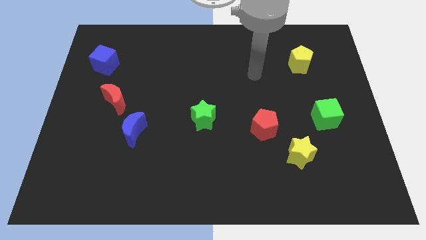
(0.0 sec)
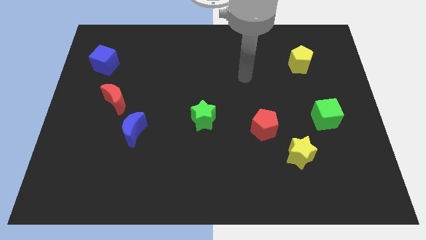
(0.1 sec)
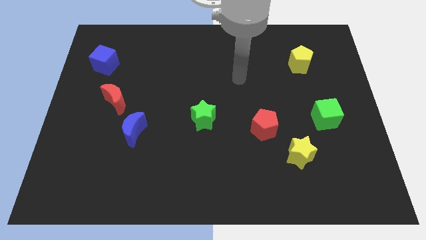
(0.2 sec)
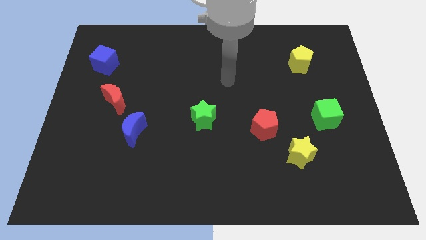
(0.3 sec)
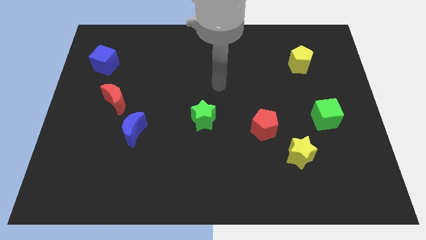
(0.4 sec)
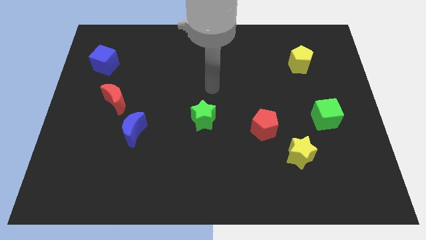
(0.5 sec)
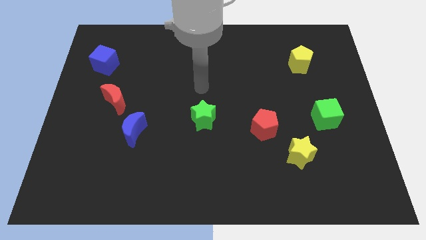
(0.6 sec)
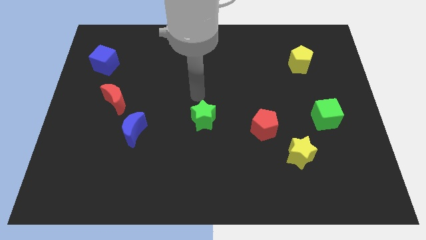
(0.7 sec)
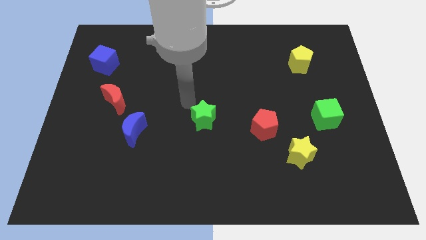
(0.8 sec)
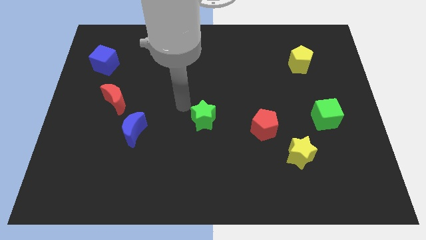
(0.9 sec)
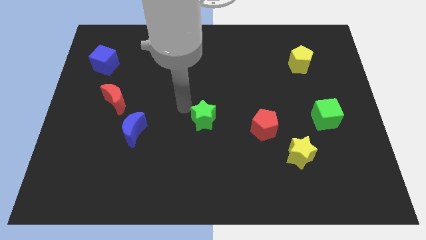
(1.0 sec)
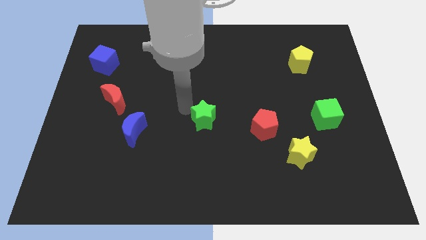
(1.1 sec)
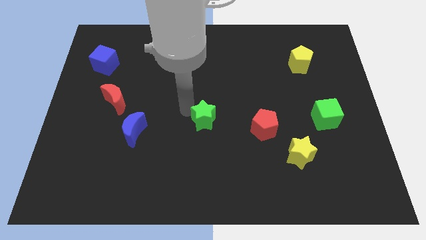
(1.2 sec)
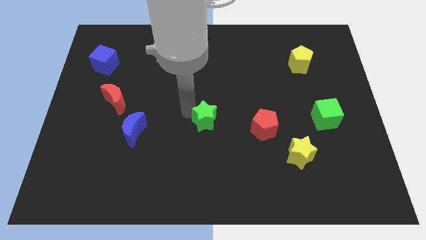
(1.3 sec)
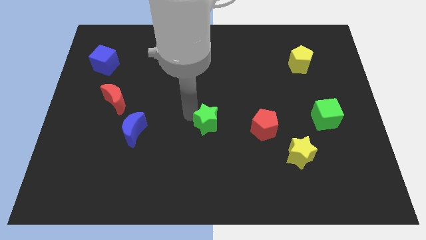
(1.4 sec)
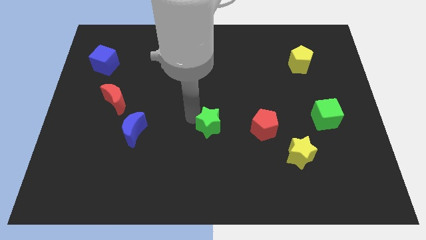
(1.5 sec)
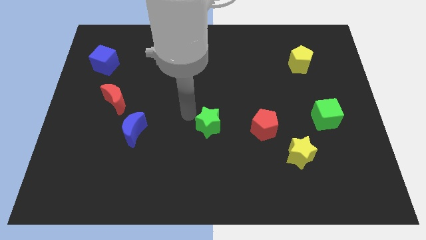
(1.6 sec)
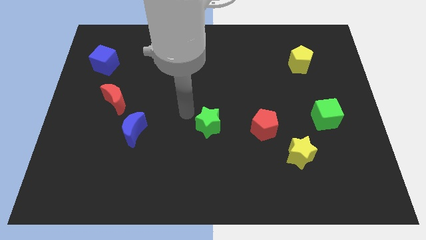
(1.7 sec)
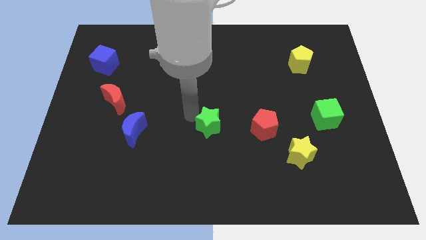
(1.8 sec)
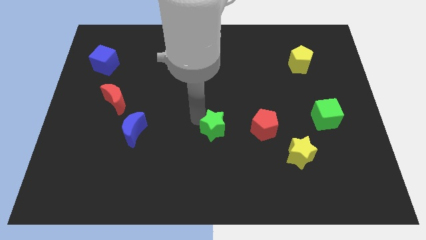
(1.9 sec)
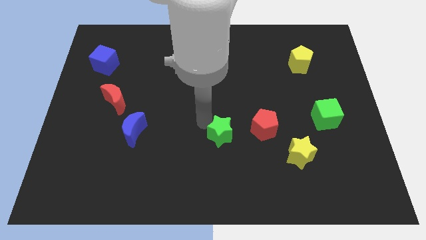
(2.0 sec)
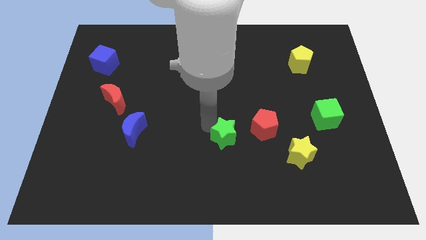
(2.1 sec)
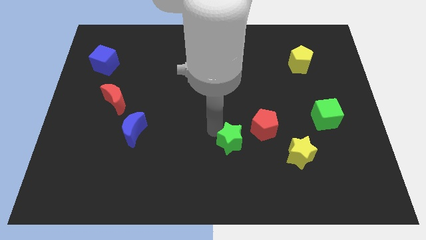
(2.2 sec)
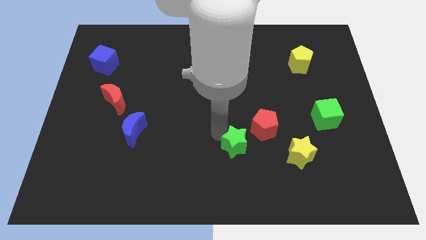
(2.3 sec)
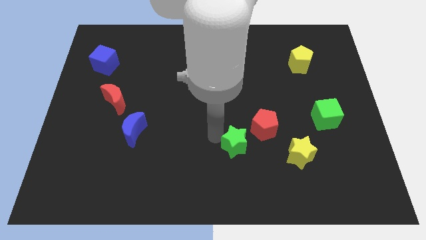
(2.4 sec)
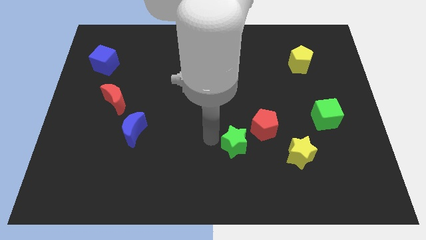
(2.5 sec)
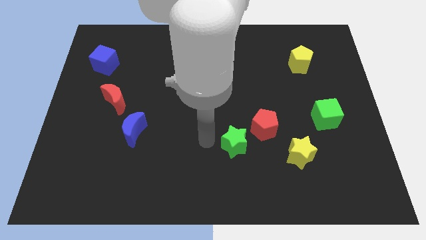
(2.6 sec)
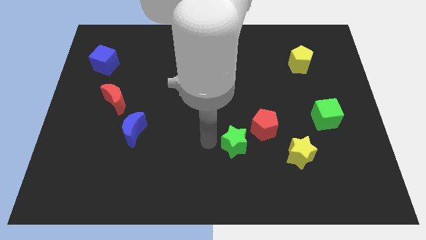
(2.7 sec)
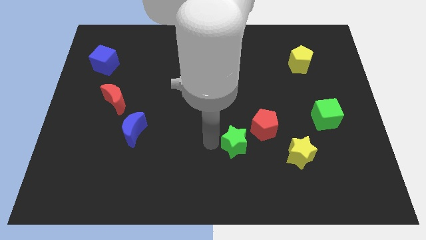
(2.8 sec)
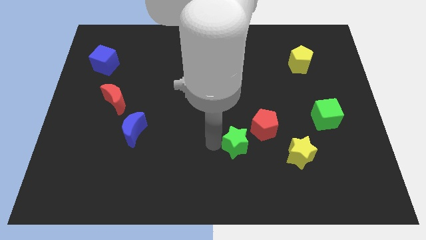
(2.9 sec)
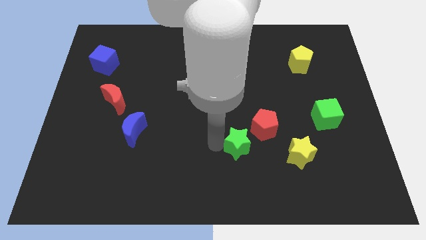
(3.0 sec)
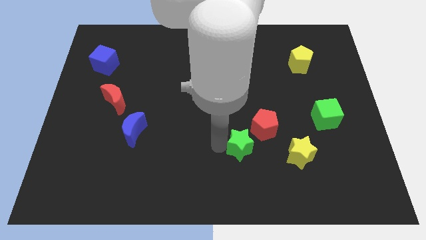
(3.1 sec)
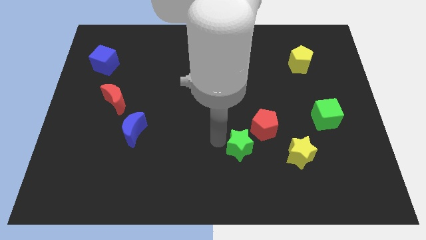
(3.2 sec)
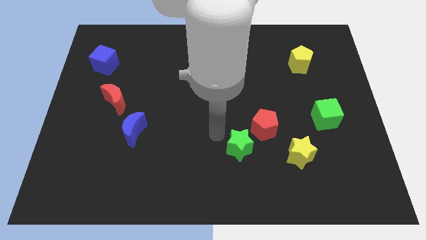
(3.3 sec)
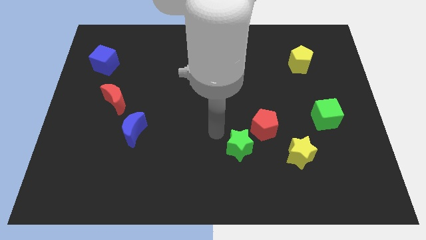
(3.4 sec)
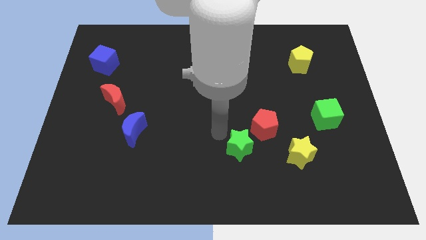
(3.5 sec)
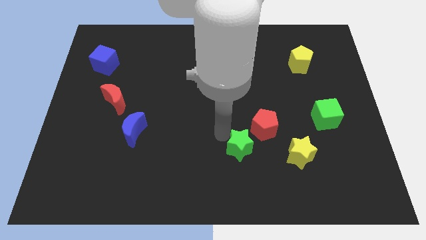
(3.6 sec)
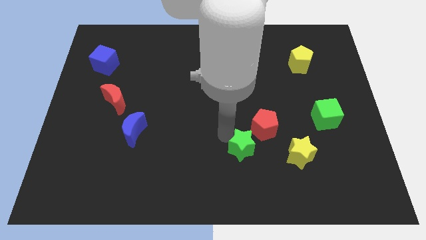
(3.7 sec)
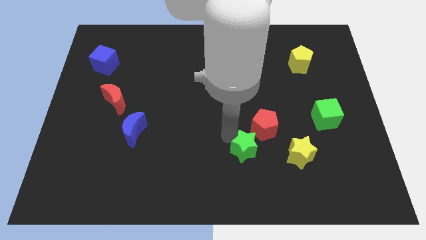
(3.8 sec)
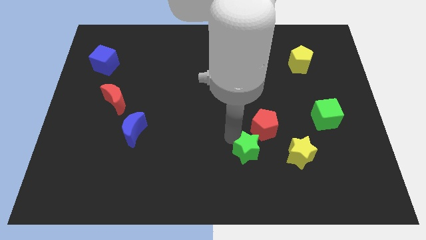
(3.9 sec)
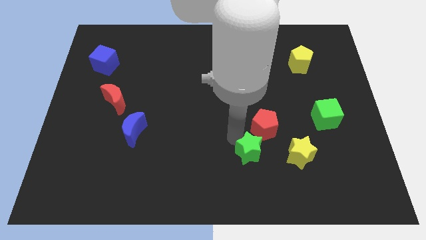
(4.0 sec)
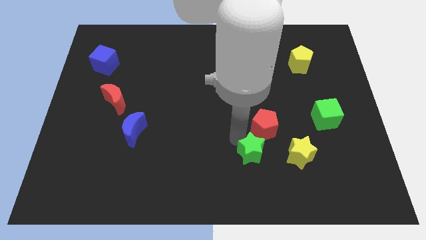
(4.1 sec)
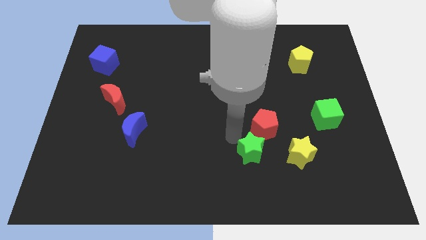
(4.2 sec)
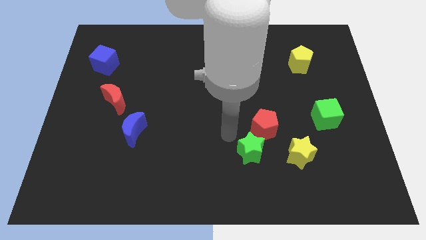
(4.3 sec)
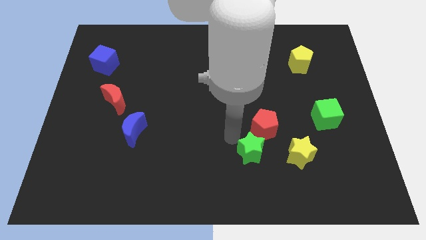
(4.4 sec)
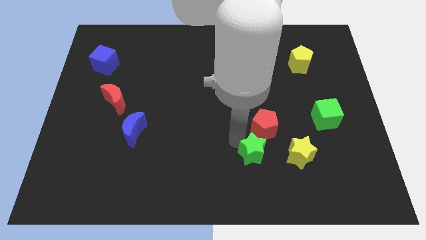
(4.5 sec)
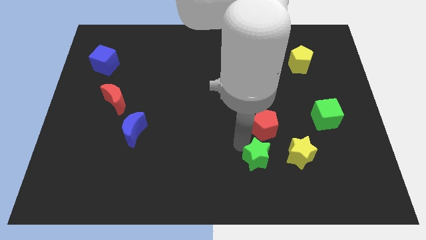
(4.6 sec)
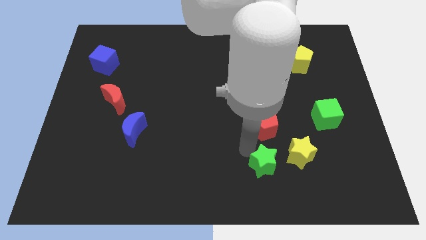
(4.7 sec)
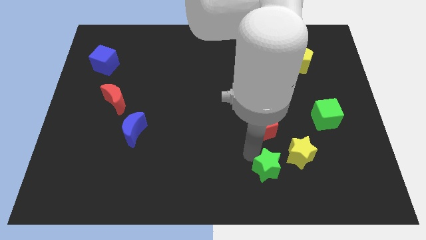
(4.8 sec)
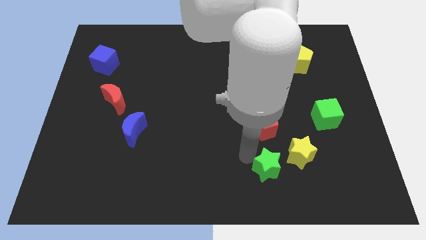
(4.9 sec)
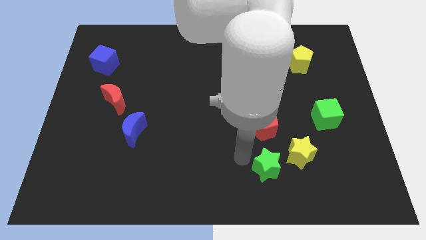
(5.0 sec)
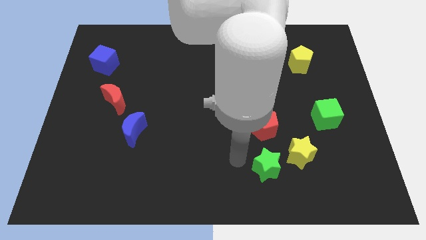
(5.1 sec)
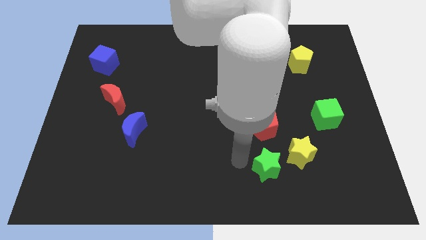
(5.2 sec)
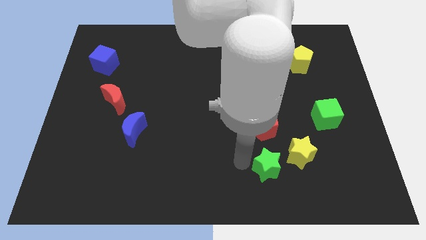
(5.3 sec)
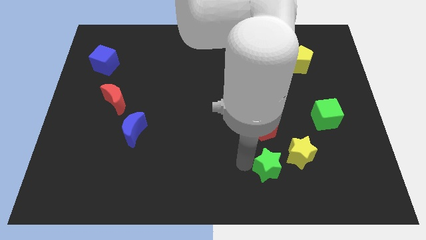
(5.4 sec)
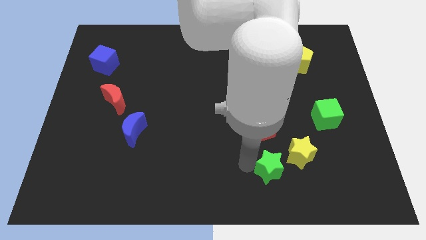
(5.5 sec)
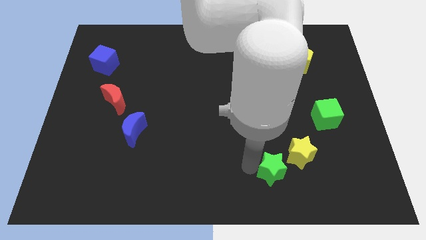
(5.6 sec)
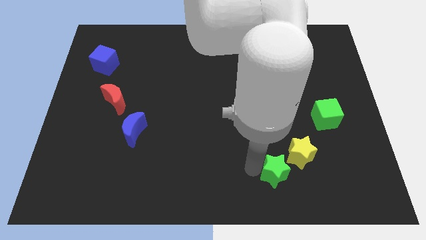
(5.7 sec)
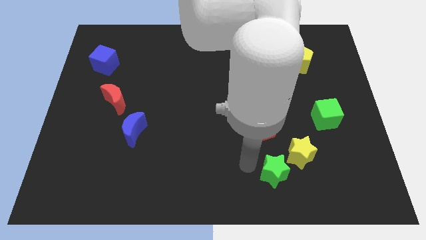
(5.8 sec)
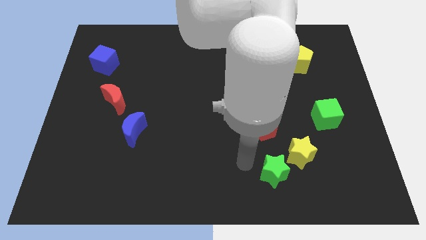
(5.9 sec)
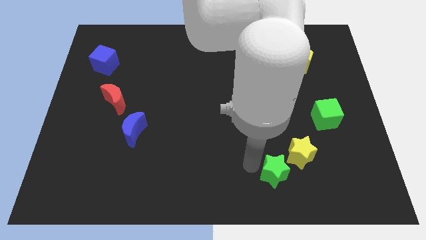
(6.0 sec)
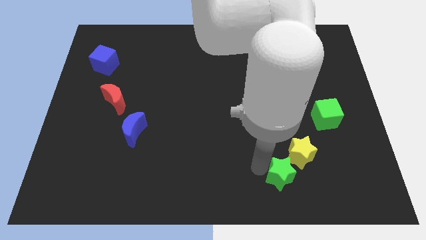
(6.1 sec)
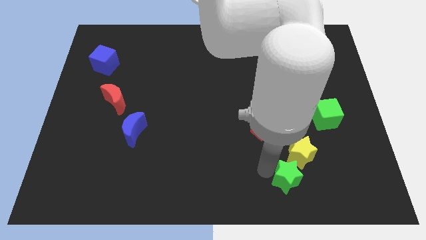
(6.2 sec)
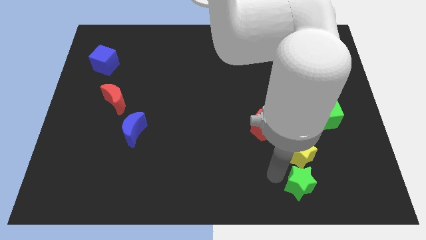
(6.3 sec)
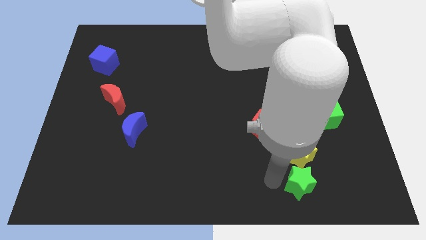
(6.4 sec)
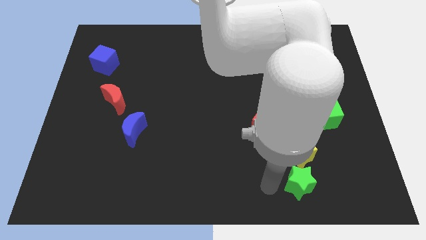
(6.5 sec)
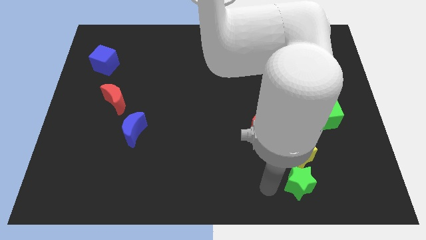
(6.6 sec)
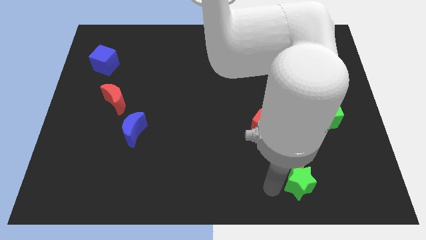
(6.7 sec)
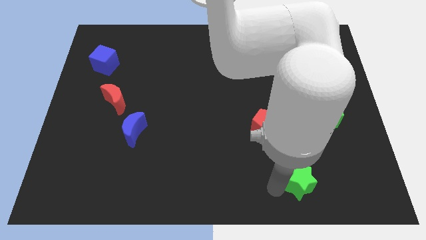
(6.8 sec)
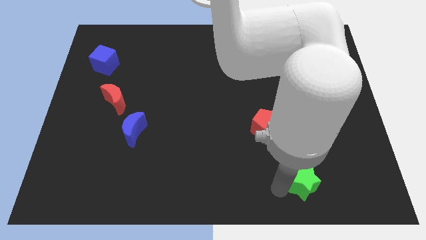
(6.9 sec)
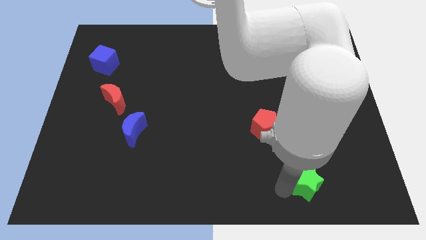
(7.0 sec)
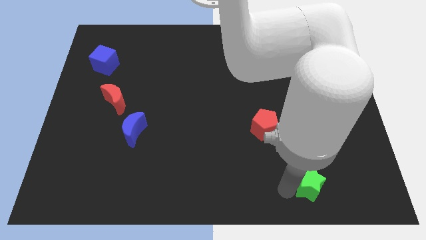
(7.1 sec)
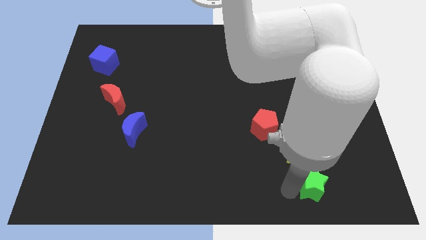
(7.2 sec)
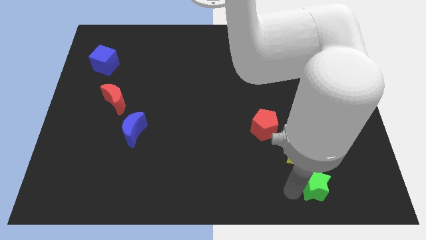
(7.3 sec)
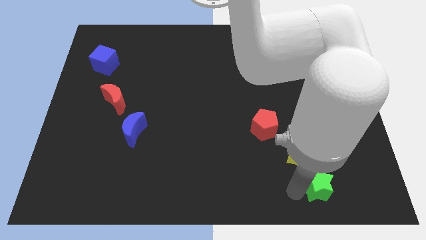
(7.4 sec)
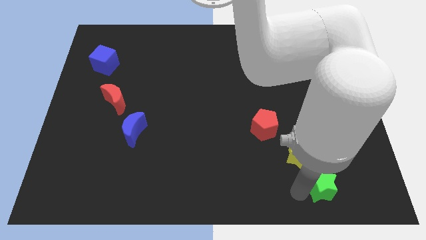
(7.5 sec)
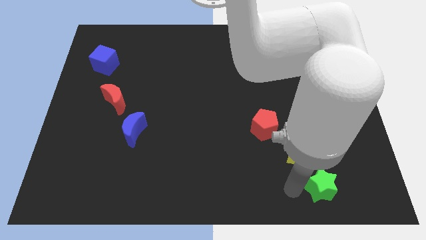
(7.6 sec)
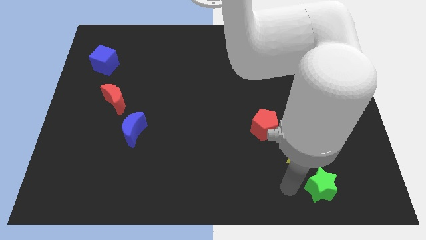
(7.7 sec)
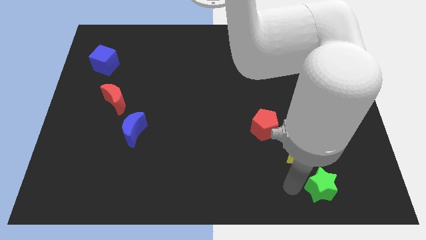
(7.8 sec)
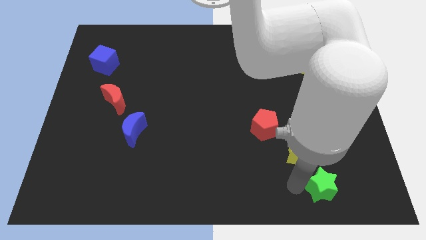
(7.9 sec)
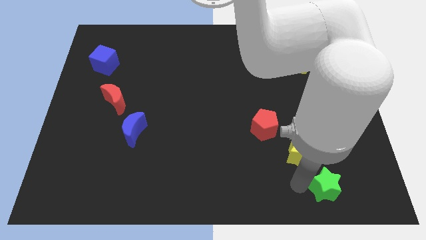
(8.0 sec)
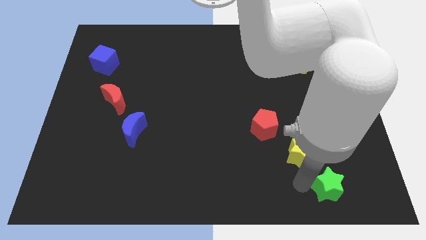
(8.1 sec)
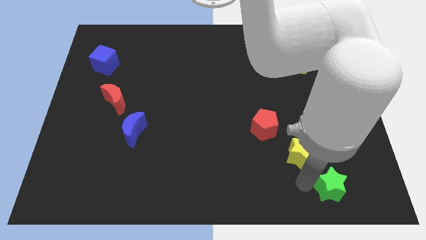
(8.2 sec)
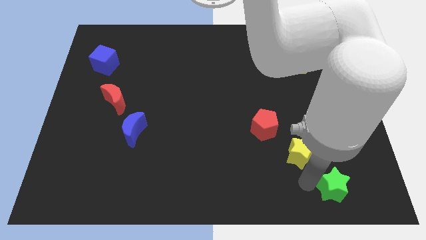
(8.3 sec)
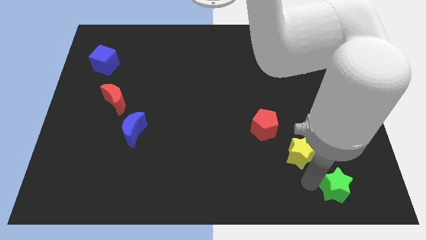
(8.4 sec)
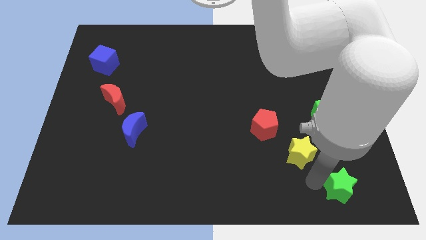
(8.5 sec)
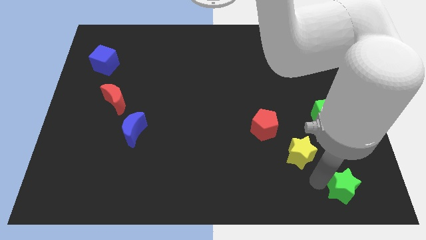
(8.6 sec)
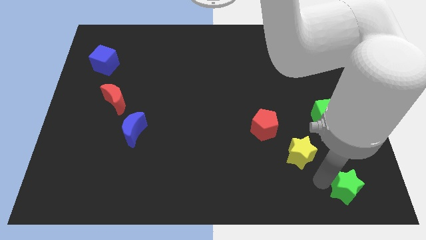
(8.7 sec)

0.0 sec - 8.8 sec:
move the green star to the bottom right corner
